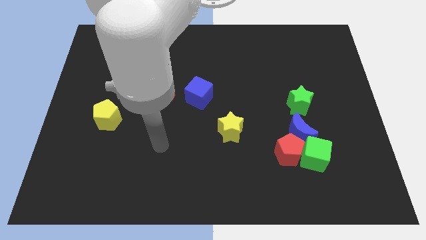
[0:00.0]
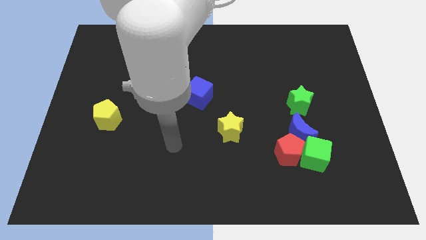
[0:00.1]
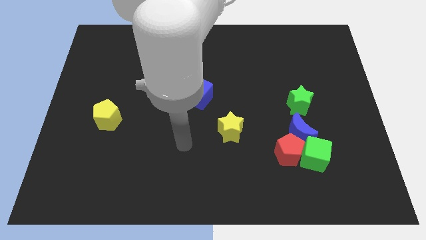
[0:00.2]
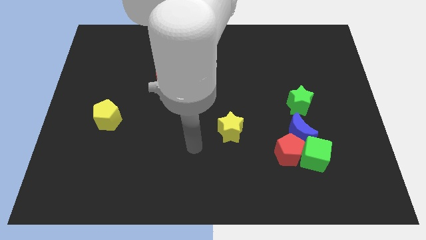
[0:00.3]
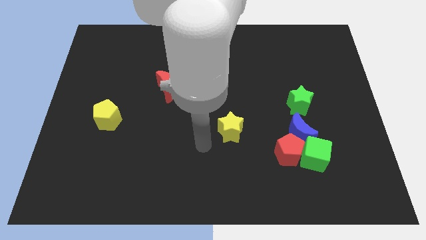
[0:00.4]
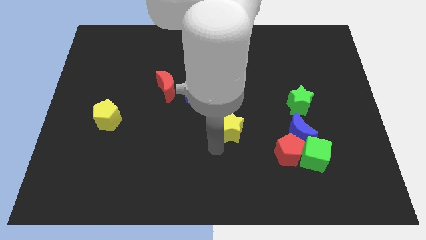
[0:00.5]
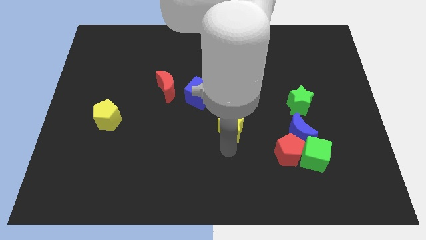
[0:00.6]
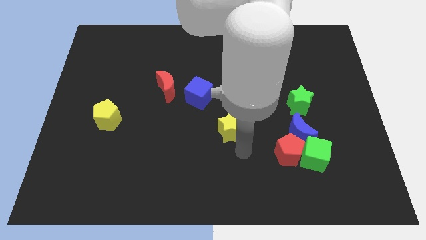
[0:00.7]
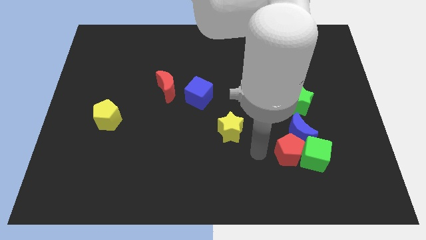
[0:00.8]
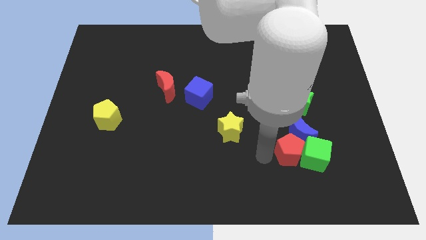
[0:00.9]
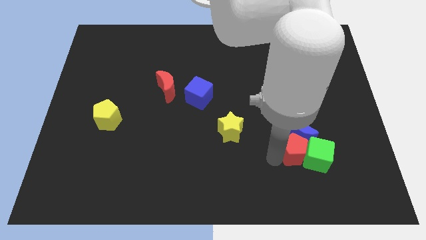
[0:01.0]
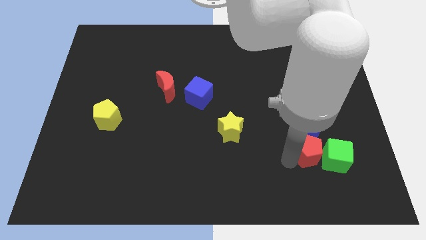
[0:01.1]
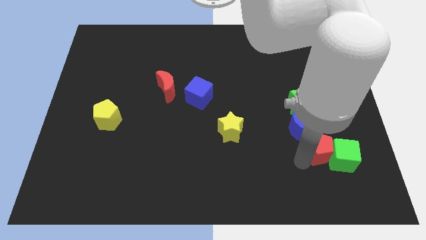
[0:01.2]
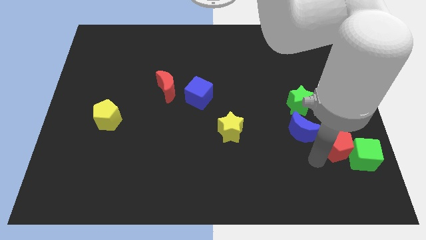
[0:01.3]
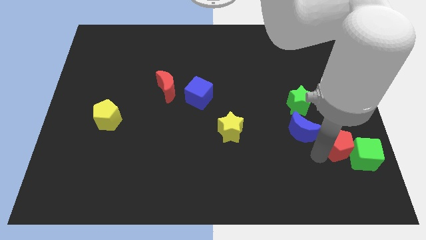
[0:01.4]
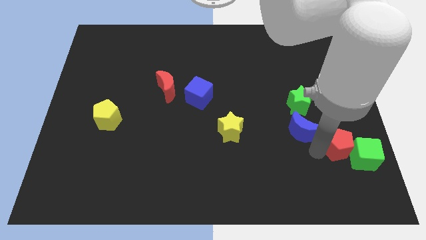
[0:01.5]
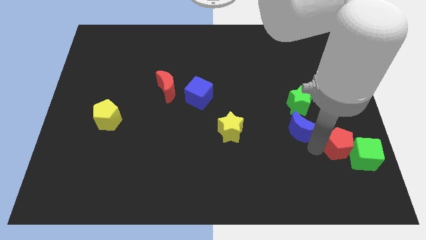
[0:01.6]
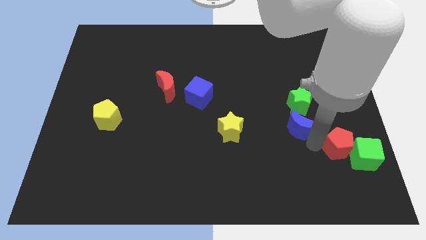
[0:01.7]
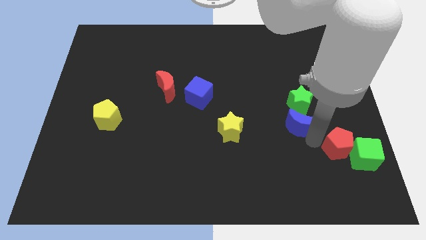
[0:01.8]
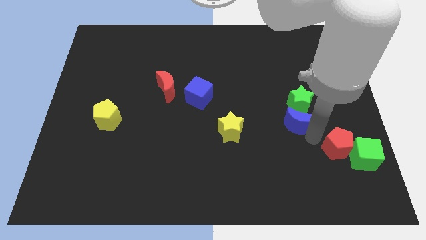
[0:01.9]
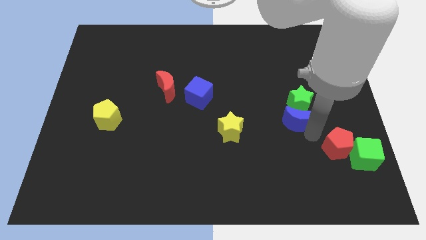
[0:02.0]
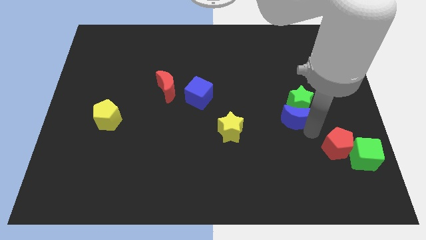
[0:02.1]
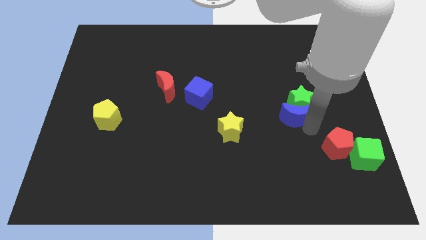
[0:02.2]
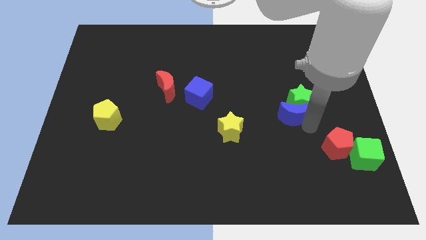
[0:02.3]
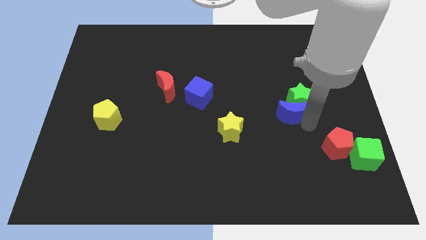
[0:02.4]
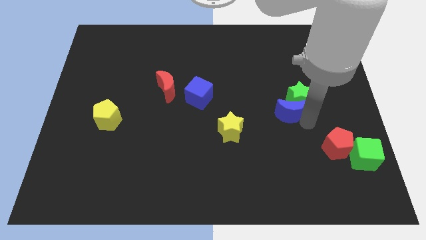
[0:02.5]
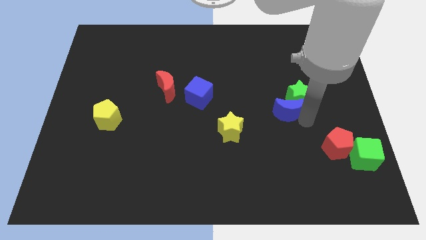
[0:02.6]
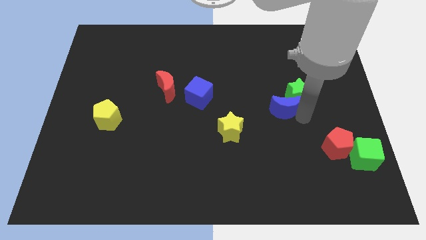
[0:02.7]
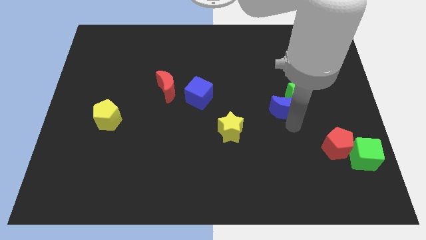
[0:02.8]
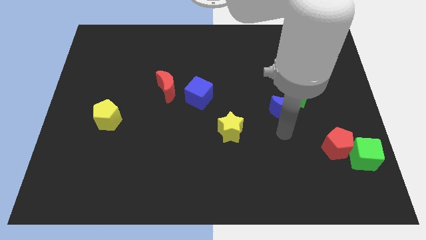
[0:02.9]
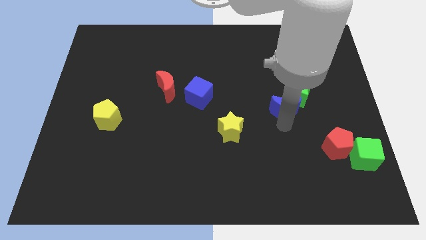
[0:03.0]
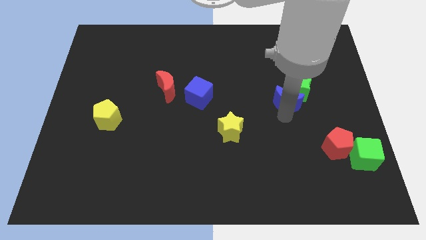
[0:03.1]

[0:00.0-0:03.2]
slightly slide the blue moon upwards

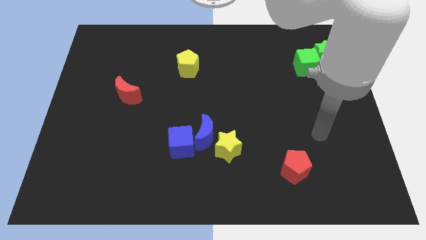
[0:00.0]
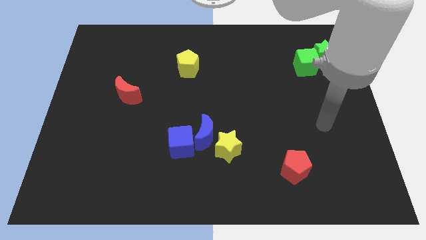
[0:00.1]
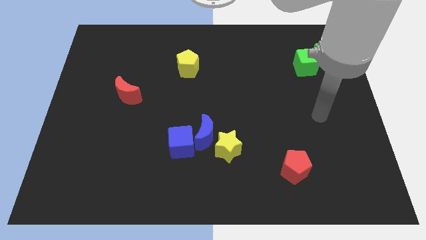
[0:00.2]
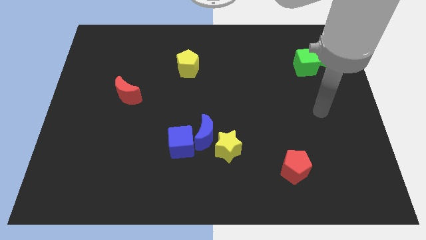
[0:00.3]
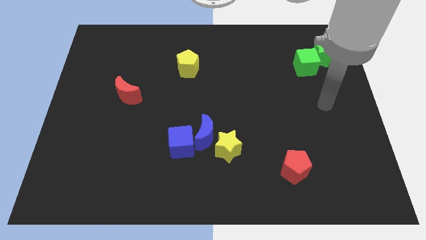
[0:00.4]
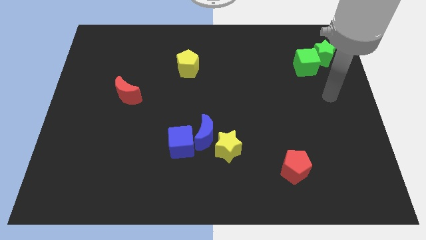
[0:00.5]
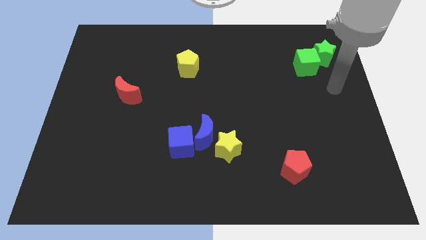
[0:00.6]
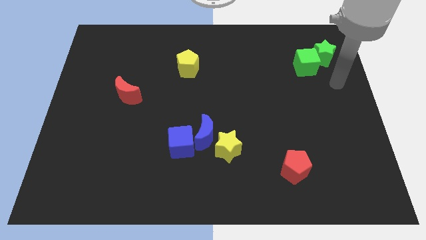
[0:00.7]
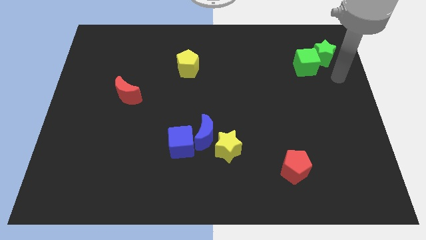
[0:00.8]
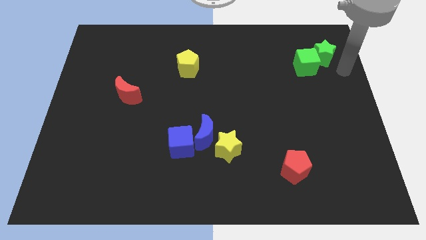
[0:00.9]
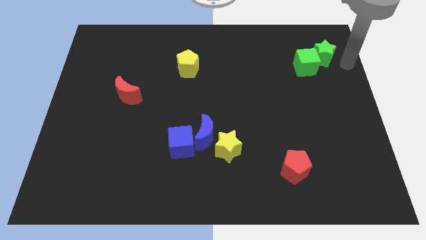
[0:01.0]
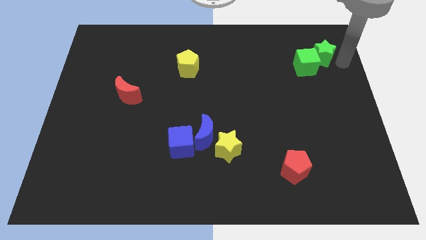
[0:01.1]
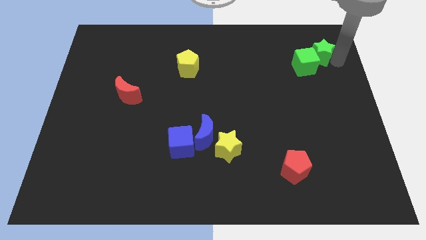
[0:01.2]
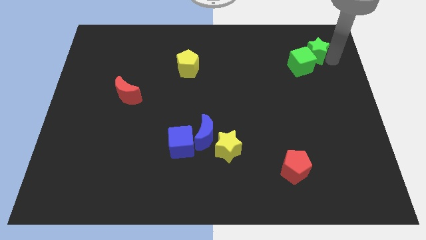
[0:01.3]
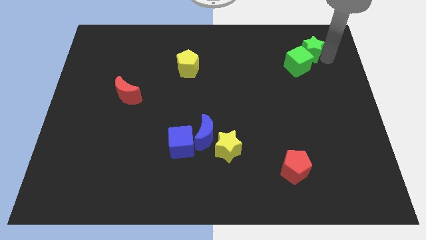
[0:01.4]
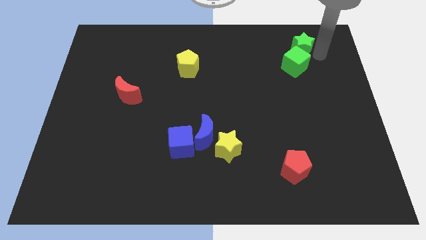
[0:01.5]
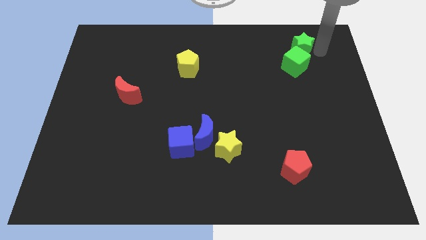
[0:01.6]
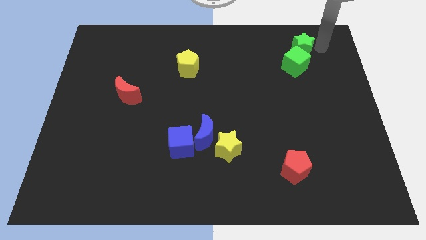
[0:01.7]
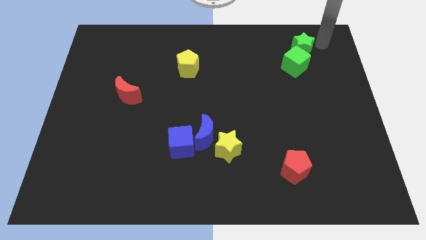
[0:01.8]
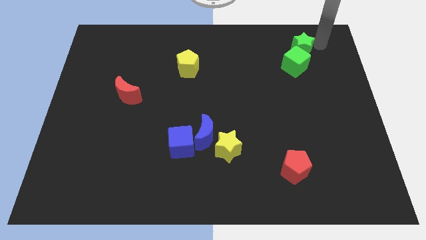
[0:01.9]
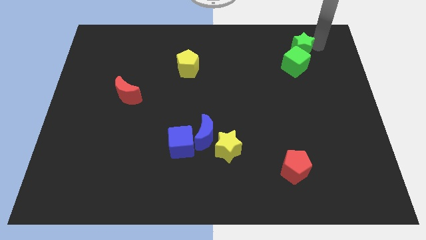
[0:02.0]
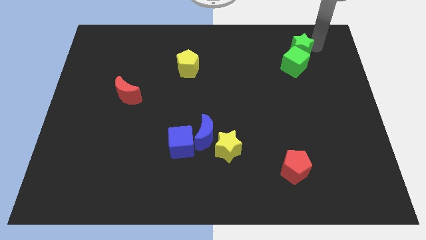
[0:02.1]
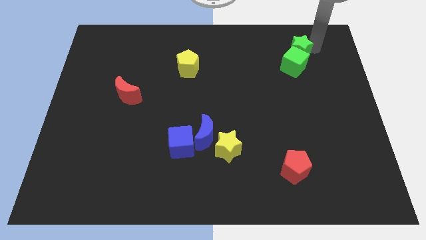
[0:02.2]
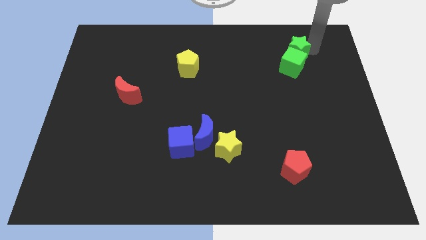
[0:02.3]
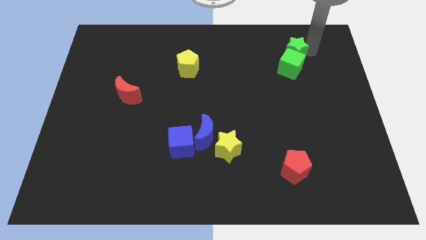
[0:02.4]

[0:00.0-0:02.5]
slide the green star a little bit to the left

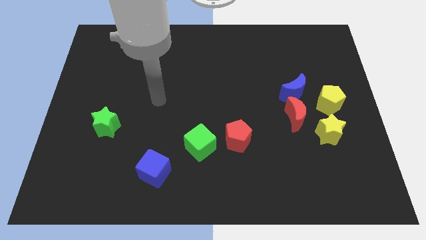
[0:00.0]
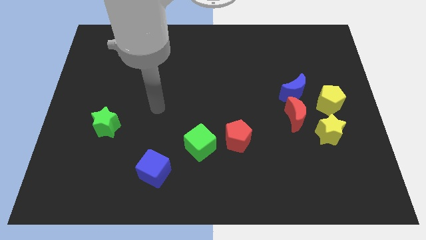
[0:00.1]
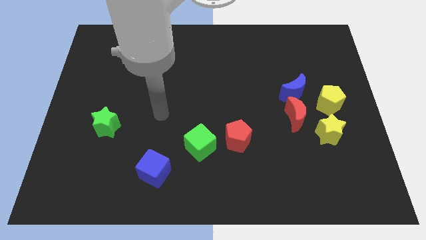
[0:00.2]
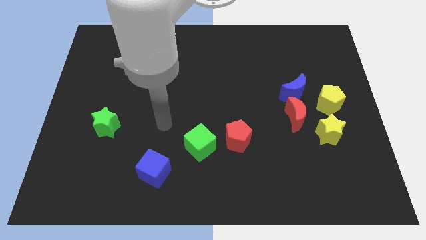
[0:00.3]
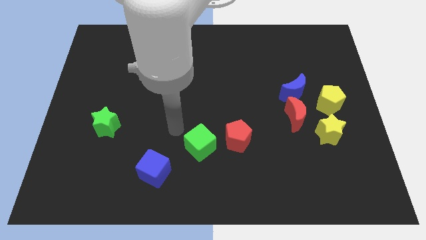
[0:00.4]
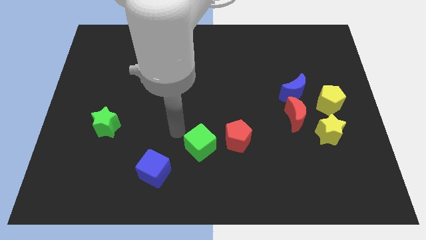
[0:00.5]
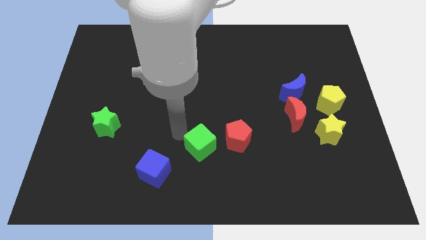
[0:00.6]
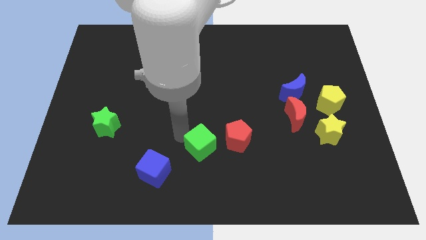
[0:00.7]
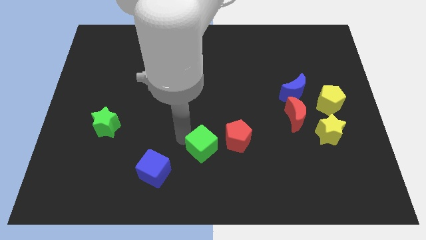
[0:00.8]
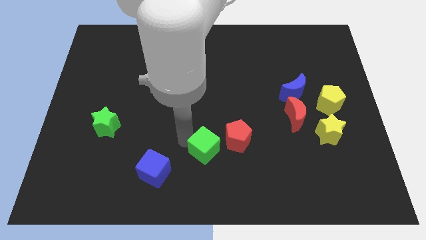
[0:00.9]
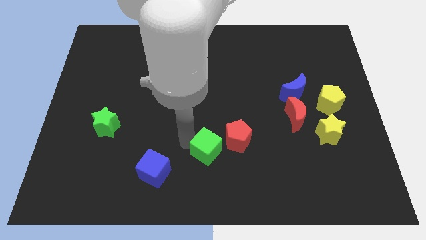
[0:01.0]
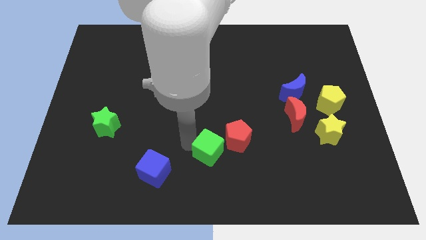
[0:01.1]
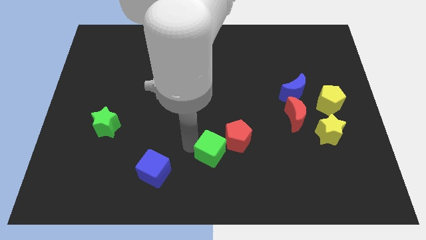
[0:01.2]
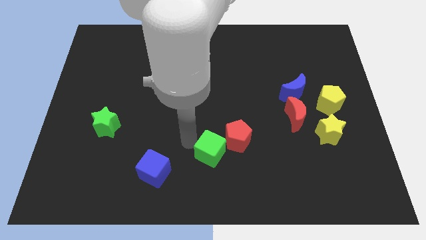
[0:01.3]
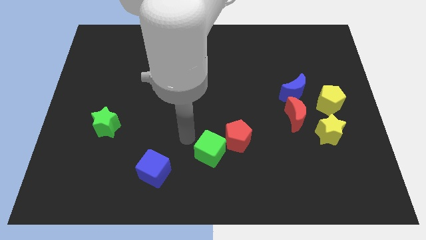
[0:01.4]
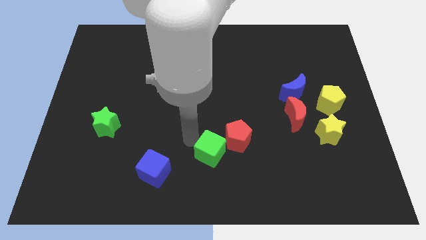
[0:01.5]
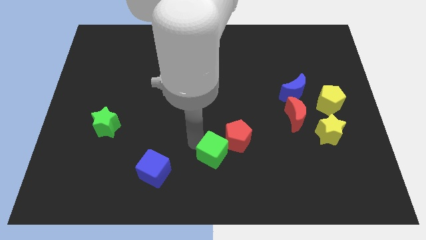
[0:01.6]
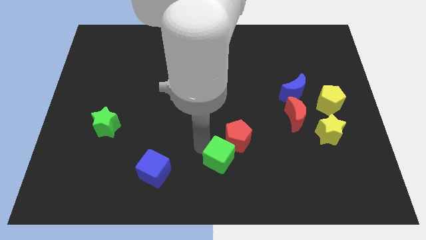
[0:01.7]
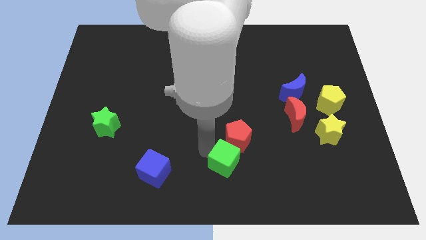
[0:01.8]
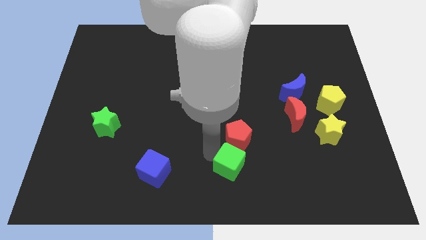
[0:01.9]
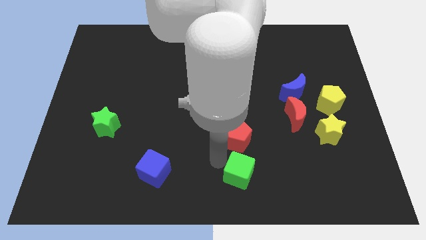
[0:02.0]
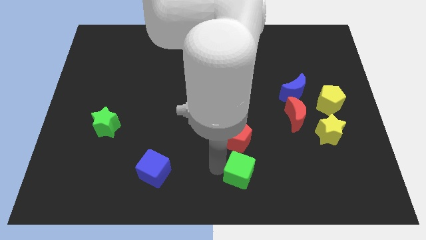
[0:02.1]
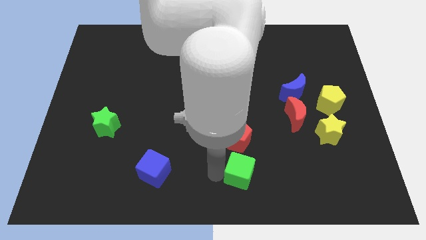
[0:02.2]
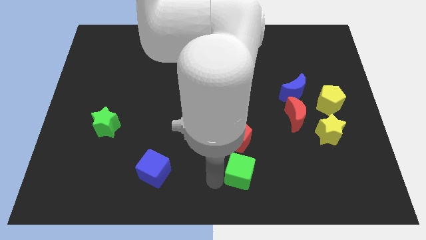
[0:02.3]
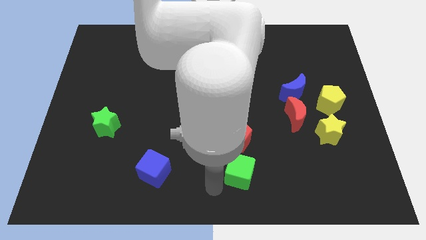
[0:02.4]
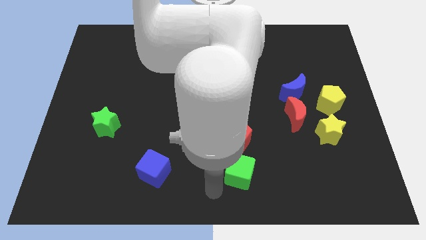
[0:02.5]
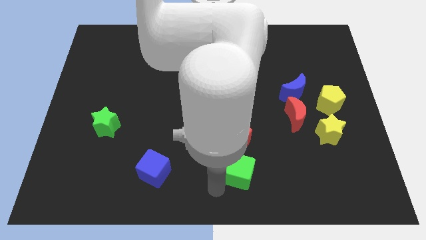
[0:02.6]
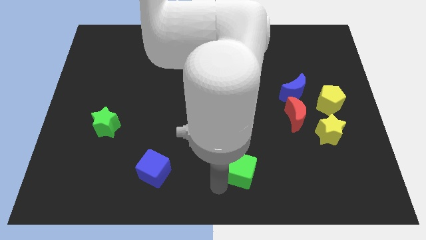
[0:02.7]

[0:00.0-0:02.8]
move the green cube to the right a little bit
